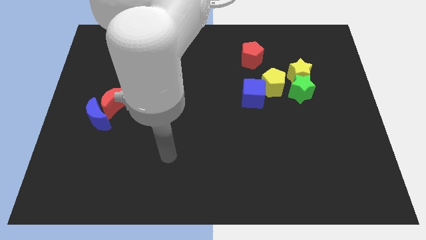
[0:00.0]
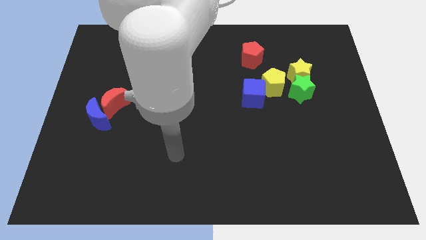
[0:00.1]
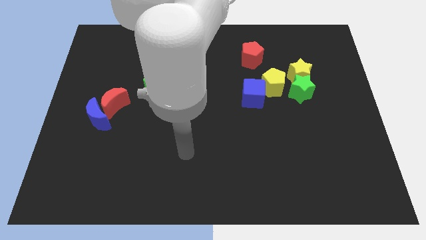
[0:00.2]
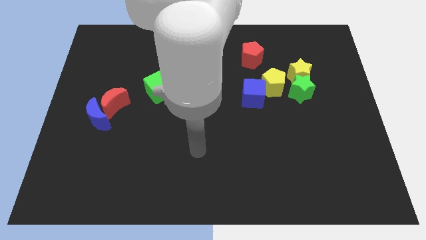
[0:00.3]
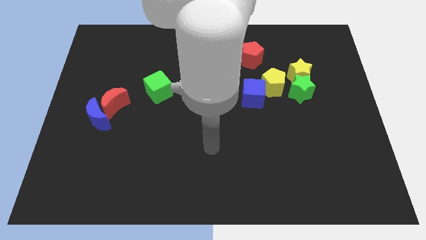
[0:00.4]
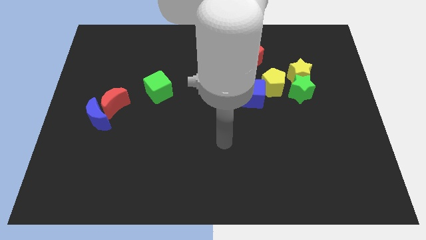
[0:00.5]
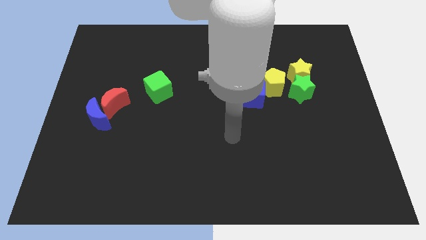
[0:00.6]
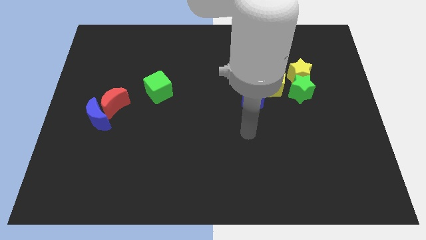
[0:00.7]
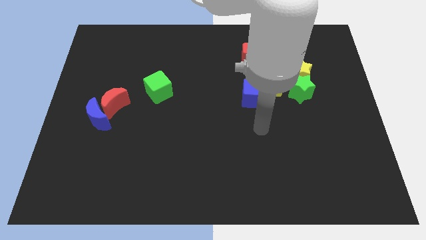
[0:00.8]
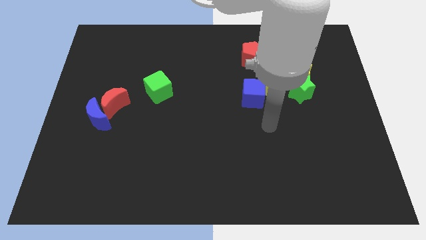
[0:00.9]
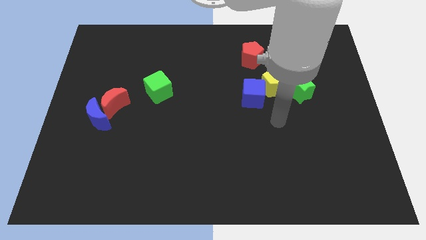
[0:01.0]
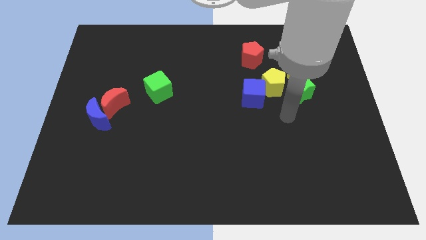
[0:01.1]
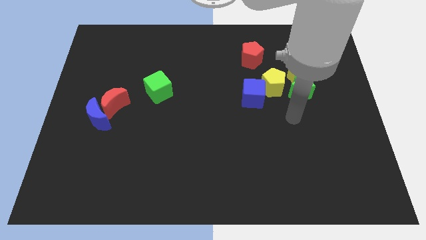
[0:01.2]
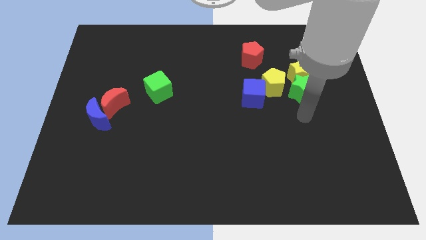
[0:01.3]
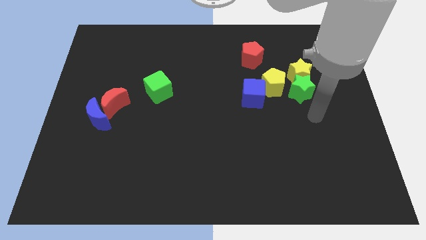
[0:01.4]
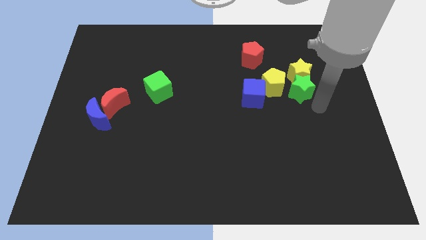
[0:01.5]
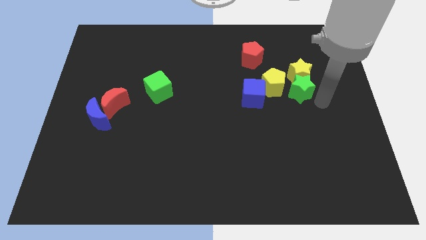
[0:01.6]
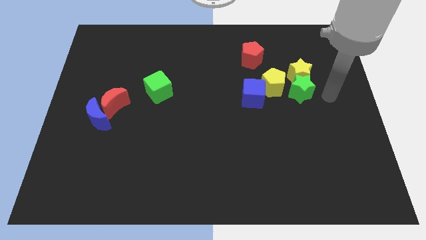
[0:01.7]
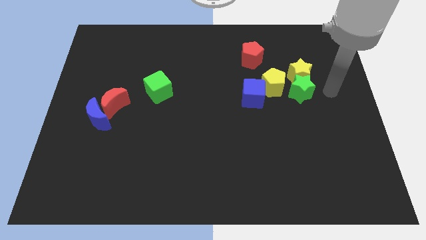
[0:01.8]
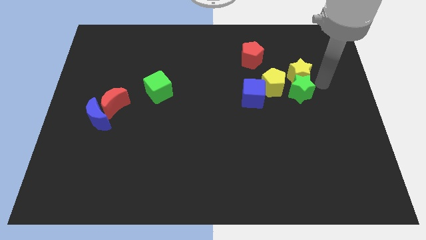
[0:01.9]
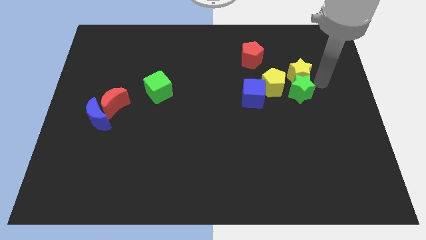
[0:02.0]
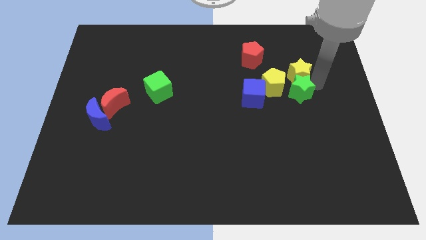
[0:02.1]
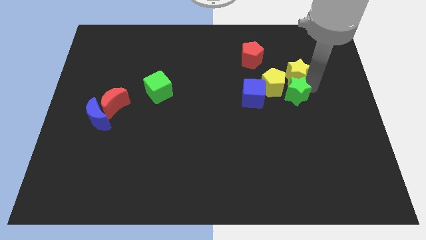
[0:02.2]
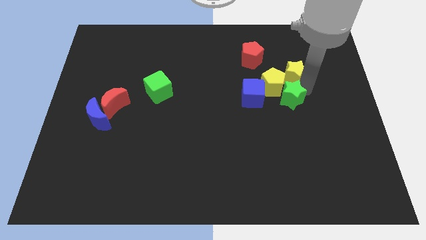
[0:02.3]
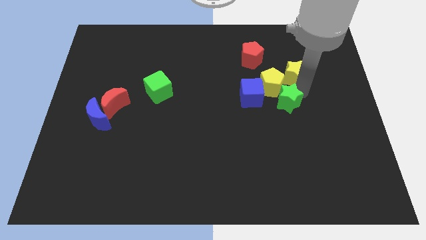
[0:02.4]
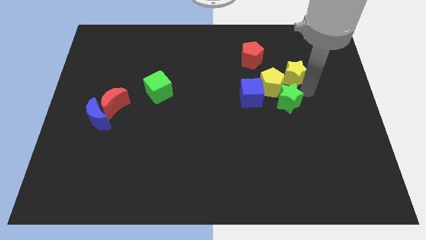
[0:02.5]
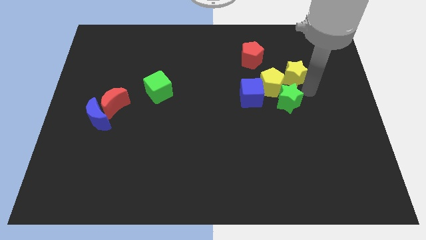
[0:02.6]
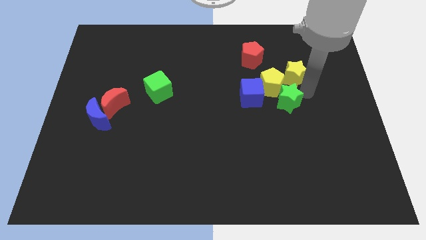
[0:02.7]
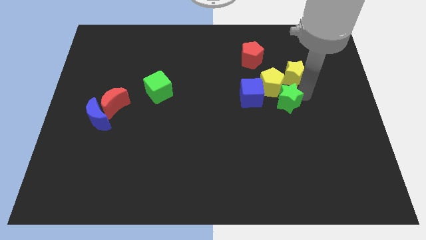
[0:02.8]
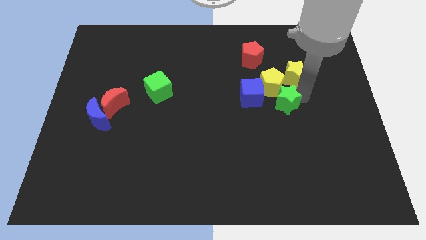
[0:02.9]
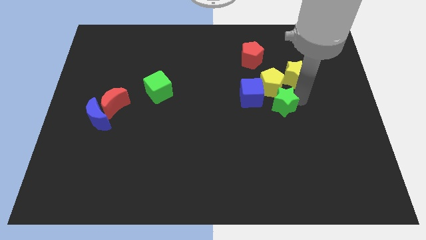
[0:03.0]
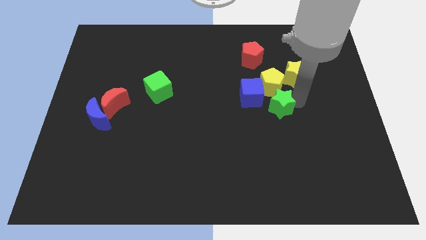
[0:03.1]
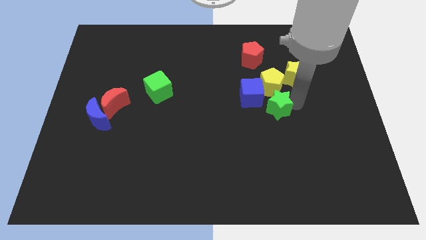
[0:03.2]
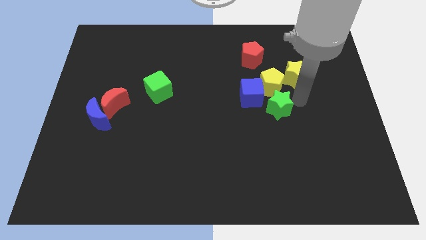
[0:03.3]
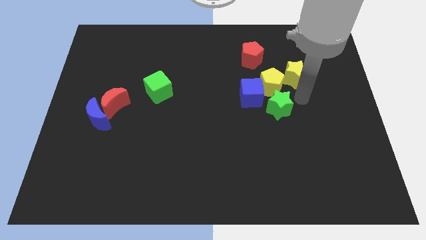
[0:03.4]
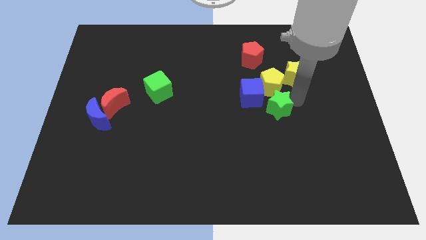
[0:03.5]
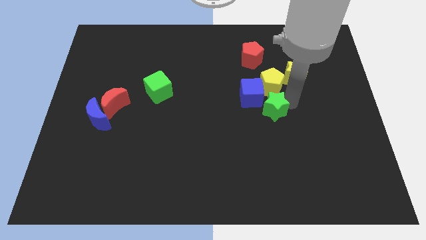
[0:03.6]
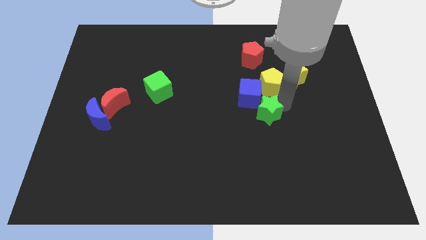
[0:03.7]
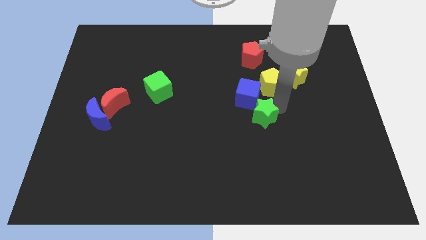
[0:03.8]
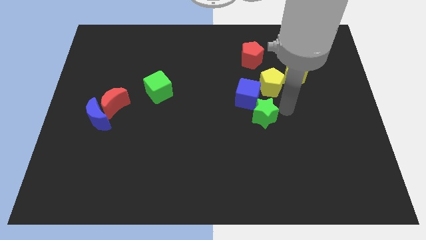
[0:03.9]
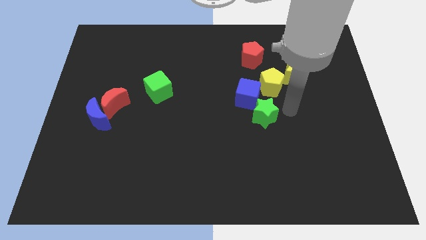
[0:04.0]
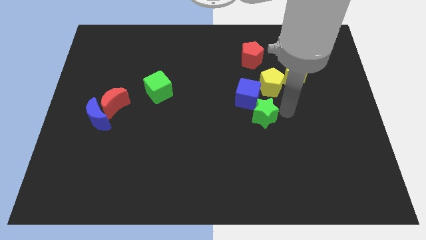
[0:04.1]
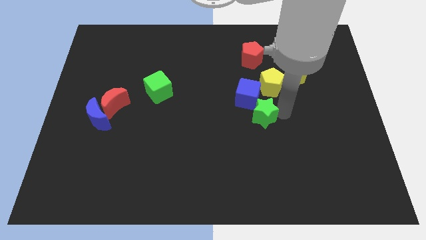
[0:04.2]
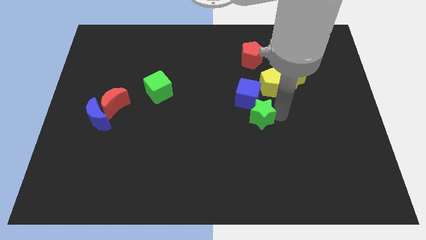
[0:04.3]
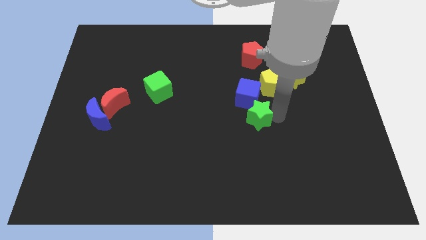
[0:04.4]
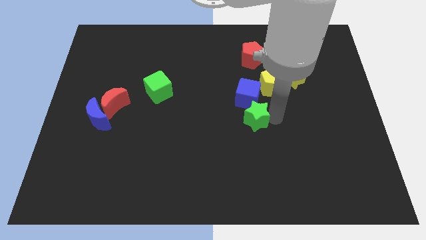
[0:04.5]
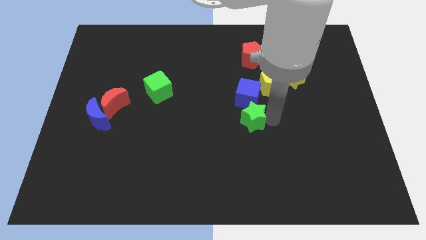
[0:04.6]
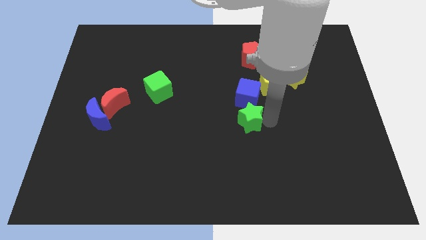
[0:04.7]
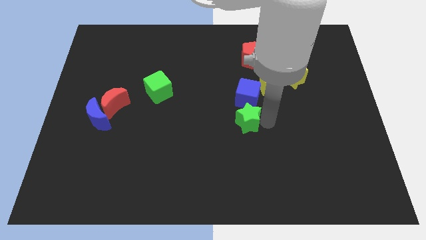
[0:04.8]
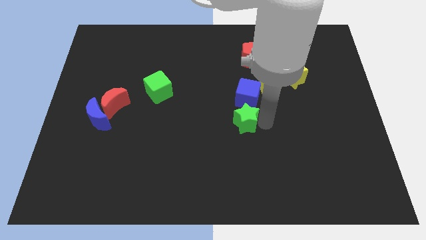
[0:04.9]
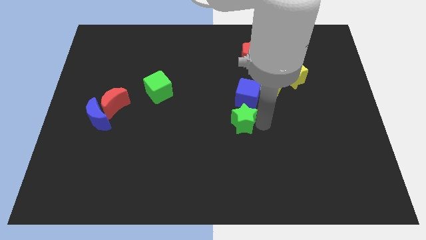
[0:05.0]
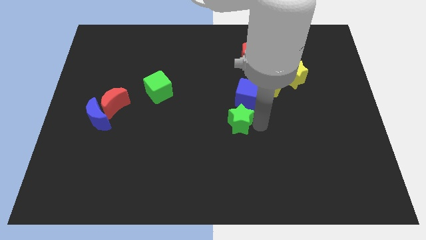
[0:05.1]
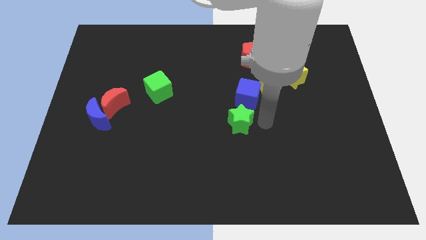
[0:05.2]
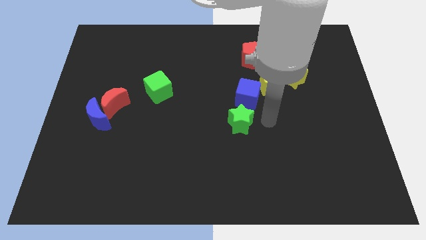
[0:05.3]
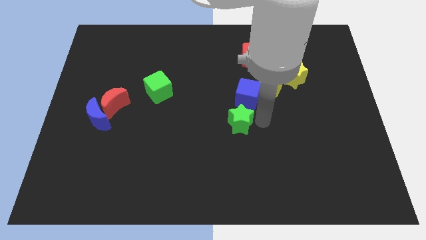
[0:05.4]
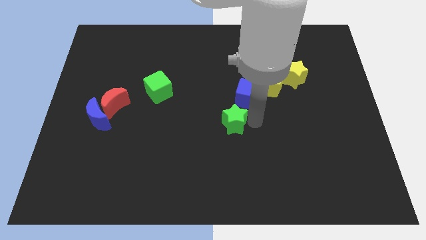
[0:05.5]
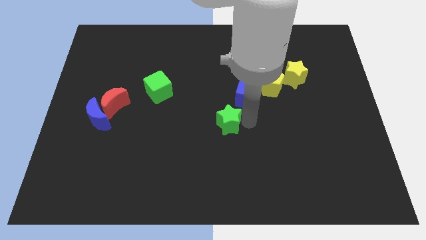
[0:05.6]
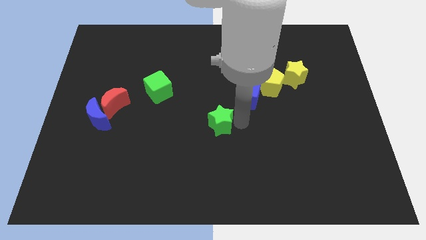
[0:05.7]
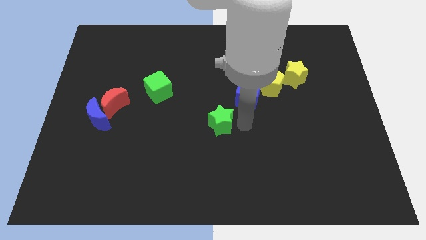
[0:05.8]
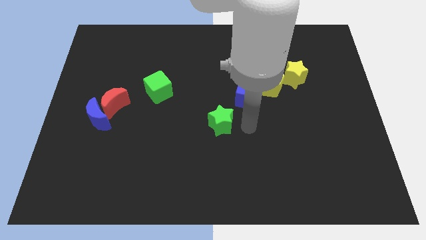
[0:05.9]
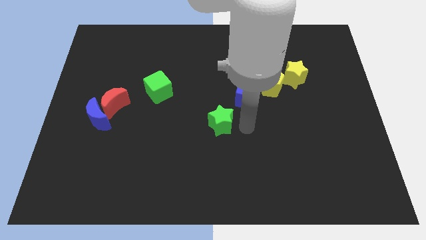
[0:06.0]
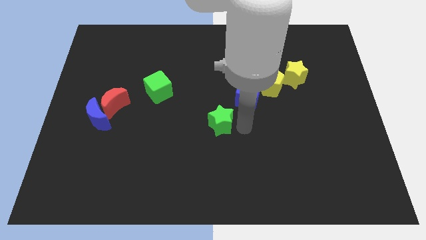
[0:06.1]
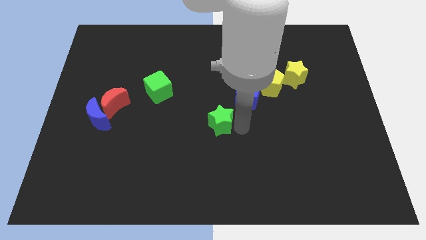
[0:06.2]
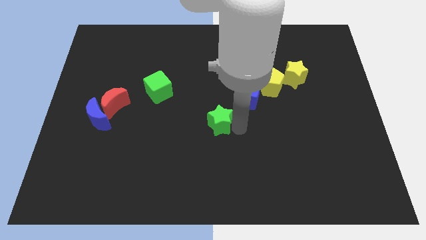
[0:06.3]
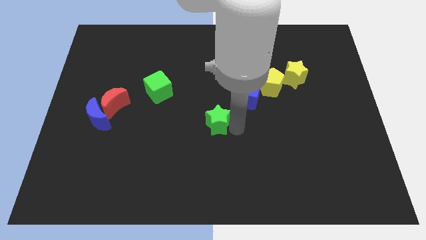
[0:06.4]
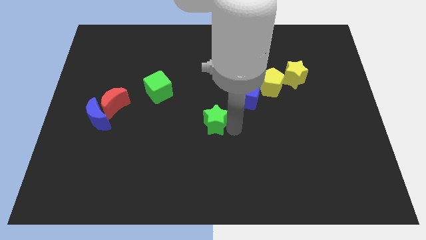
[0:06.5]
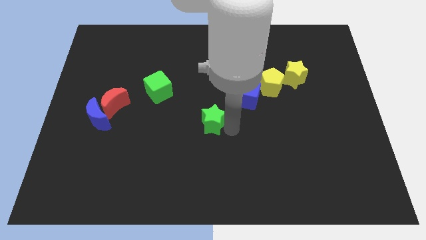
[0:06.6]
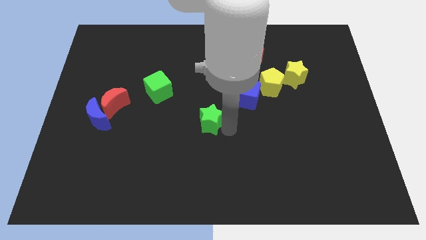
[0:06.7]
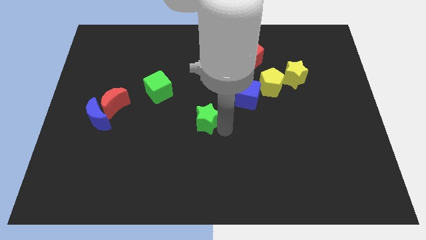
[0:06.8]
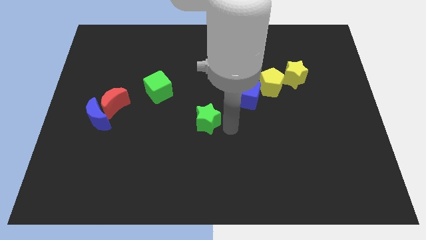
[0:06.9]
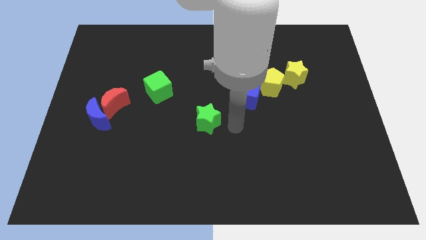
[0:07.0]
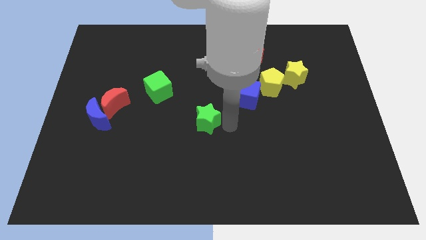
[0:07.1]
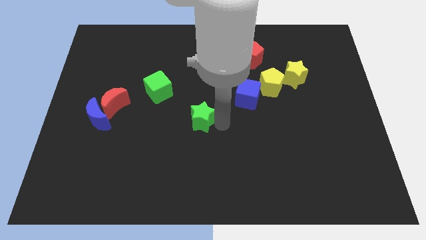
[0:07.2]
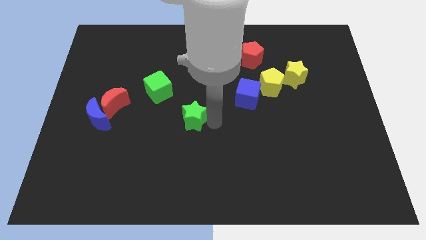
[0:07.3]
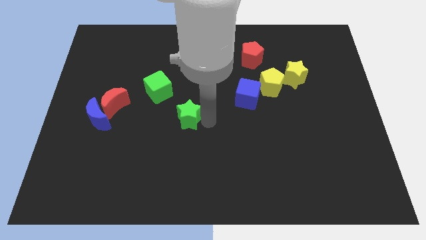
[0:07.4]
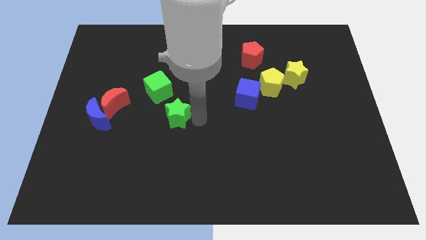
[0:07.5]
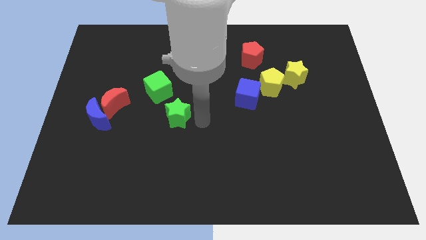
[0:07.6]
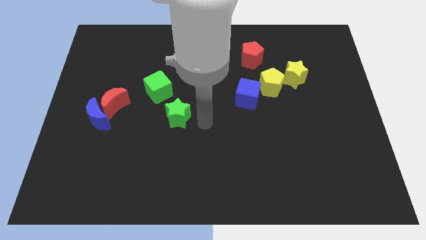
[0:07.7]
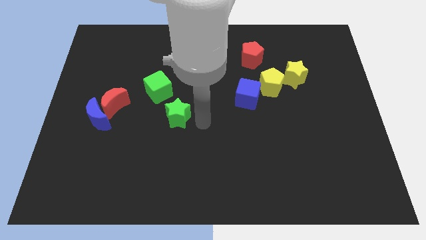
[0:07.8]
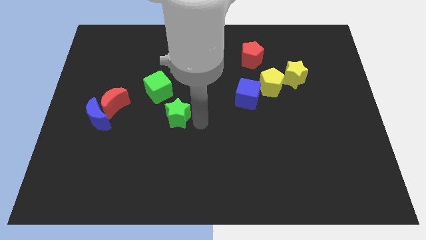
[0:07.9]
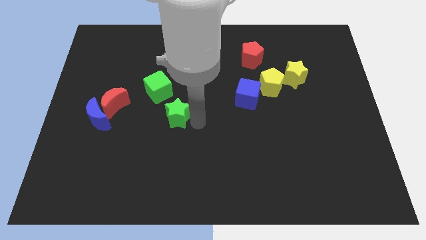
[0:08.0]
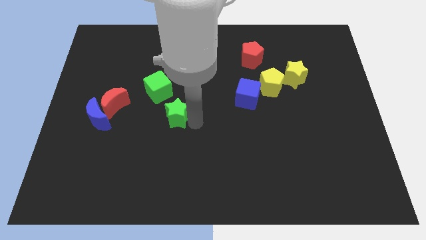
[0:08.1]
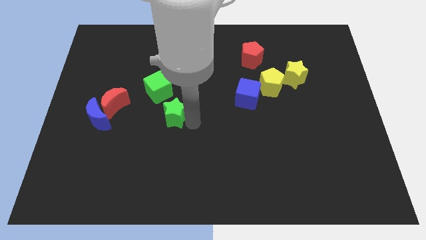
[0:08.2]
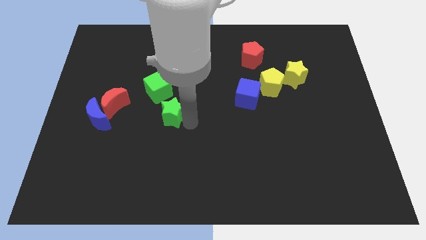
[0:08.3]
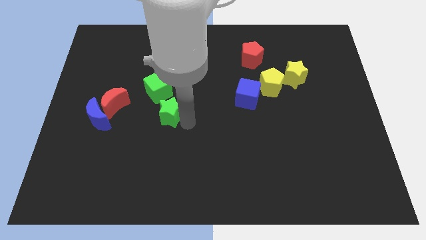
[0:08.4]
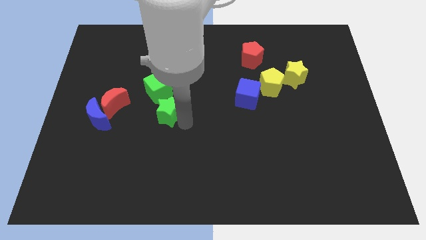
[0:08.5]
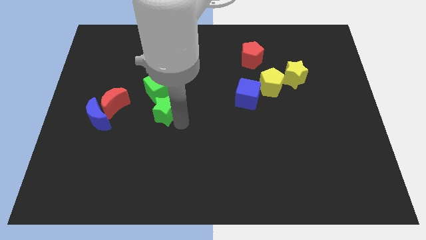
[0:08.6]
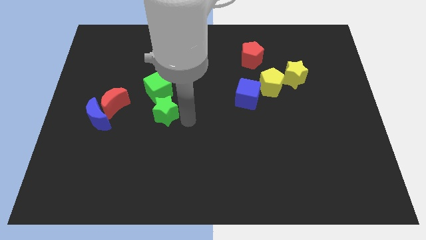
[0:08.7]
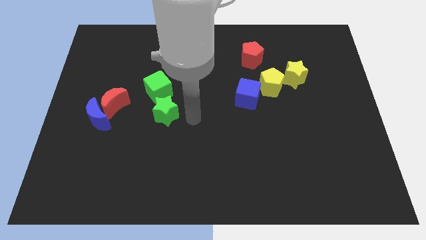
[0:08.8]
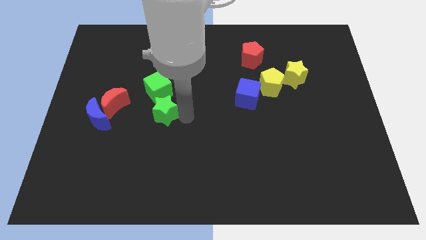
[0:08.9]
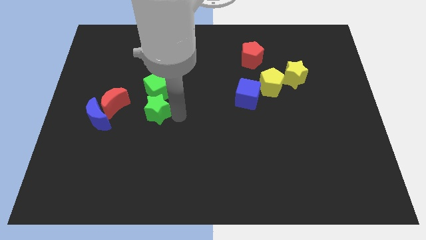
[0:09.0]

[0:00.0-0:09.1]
move the green star to the bottom left side of the green cube
